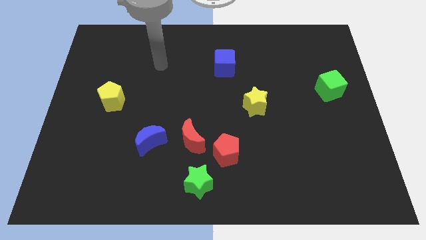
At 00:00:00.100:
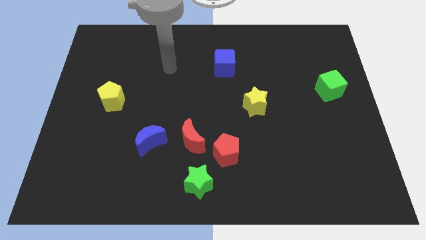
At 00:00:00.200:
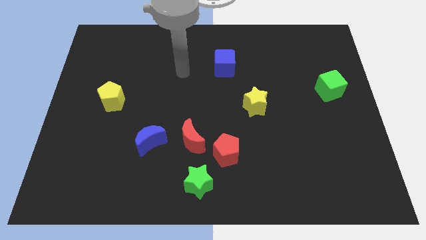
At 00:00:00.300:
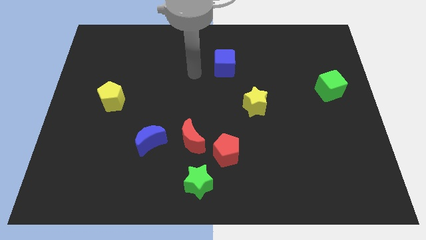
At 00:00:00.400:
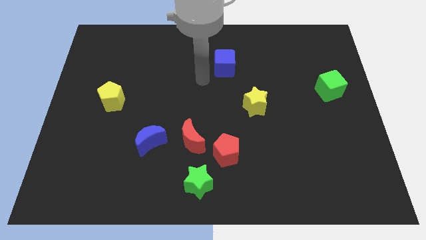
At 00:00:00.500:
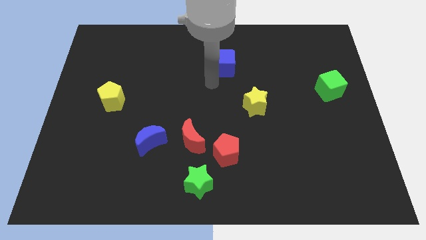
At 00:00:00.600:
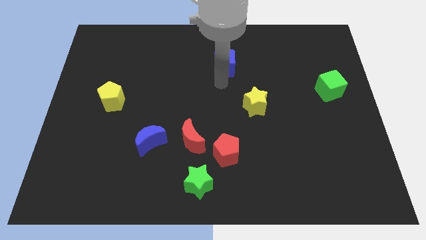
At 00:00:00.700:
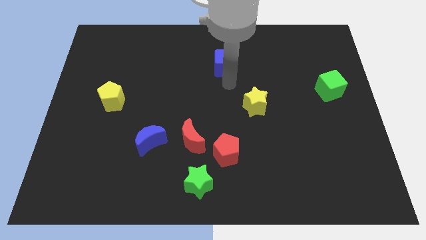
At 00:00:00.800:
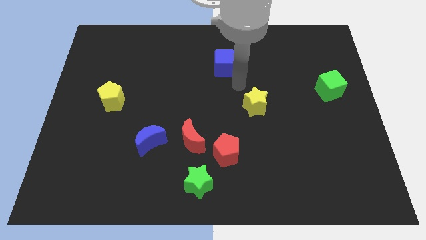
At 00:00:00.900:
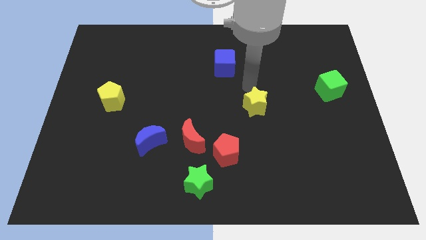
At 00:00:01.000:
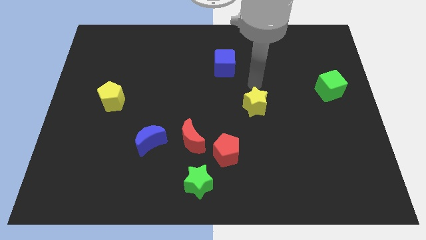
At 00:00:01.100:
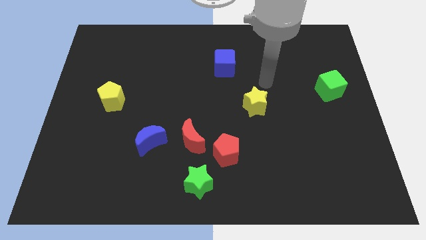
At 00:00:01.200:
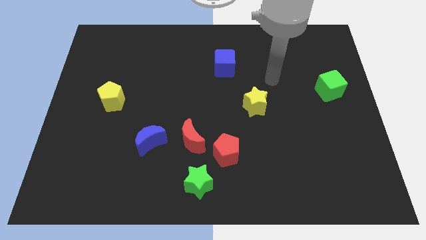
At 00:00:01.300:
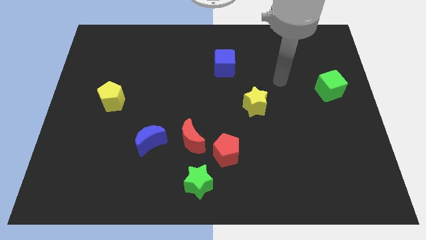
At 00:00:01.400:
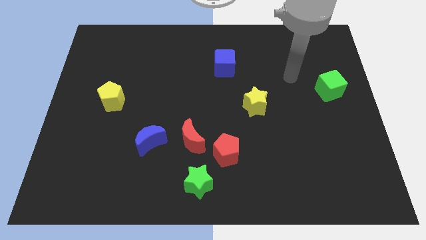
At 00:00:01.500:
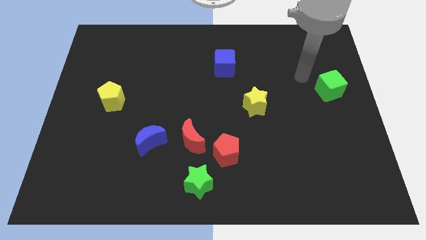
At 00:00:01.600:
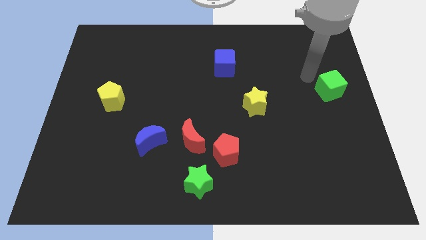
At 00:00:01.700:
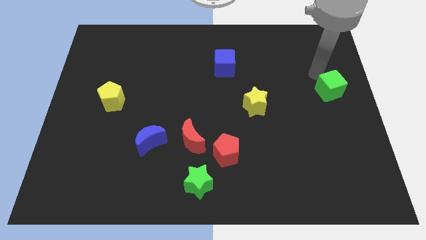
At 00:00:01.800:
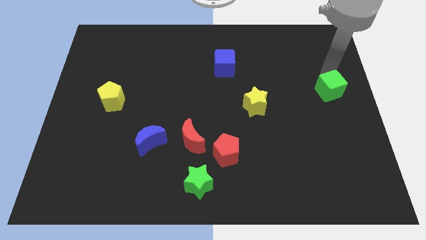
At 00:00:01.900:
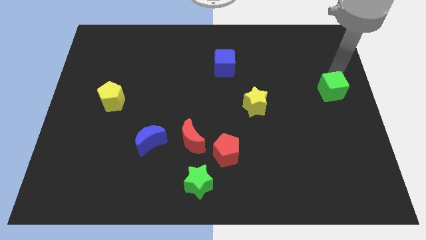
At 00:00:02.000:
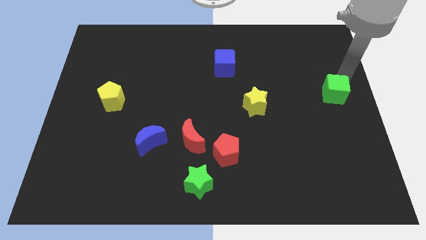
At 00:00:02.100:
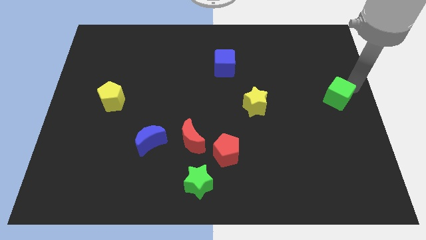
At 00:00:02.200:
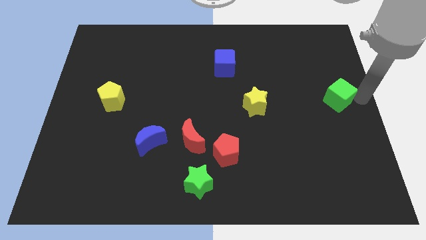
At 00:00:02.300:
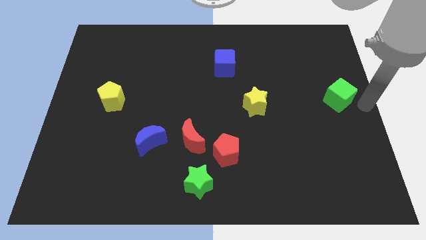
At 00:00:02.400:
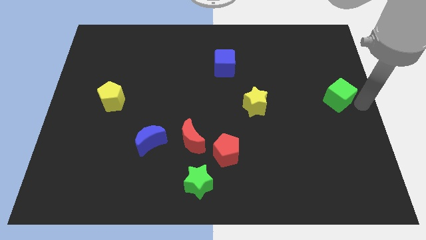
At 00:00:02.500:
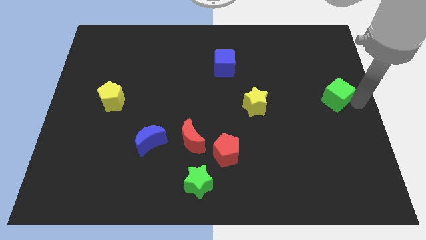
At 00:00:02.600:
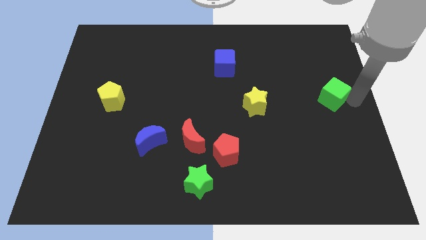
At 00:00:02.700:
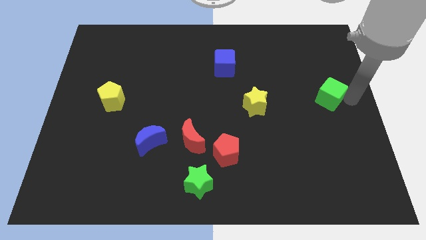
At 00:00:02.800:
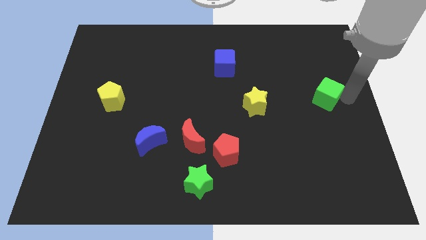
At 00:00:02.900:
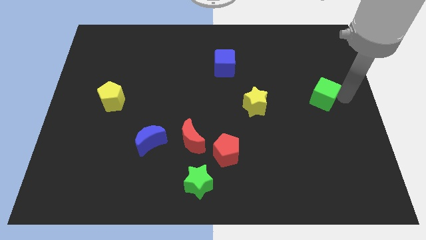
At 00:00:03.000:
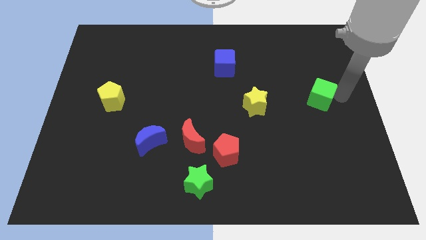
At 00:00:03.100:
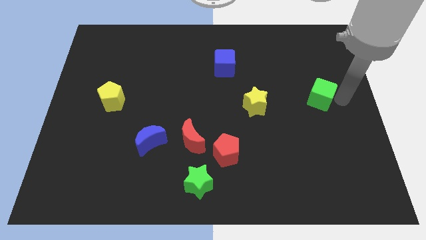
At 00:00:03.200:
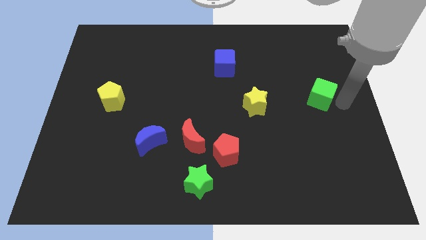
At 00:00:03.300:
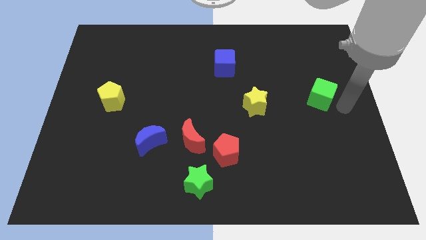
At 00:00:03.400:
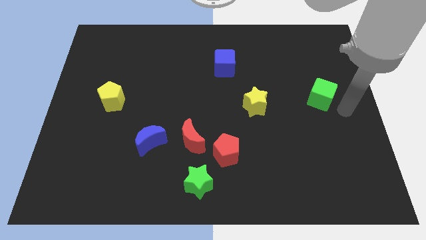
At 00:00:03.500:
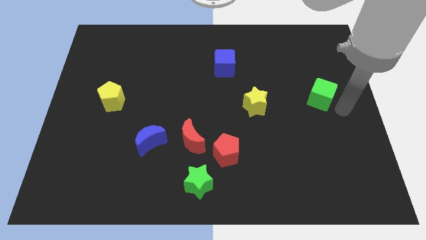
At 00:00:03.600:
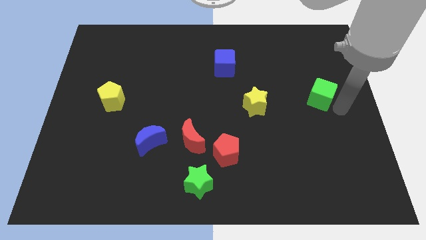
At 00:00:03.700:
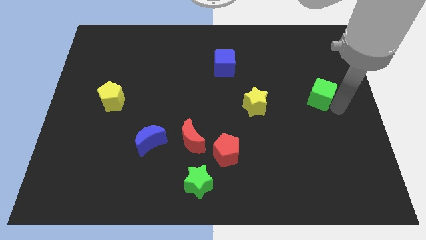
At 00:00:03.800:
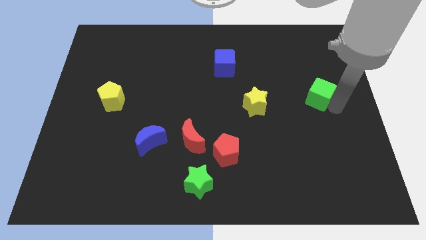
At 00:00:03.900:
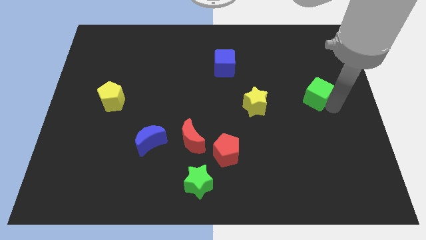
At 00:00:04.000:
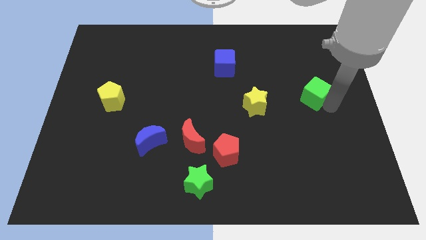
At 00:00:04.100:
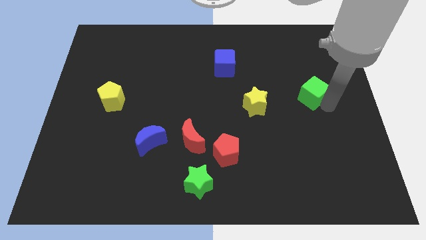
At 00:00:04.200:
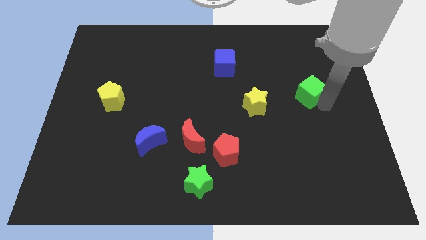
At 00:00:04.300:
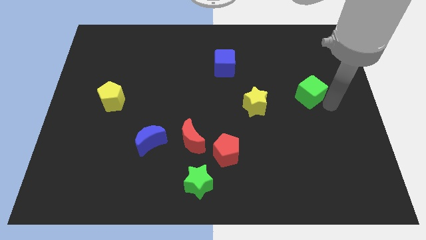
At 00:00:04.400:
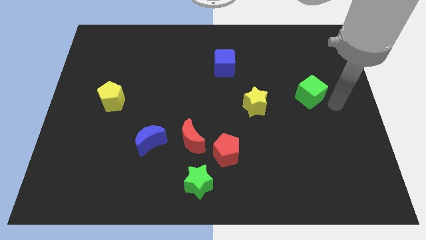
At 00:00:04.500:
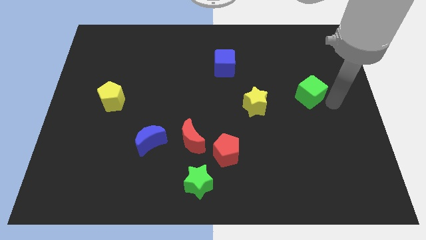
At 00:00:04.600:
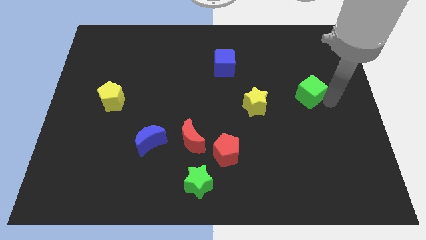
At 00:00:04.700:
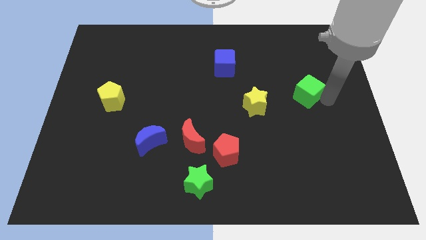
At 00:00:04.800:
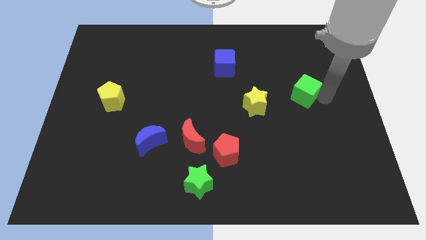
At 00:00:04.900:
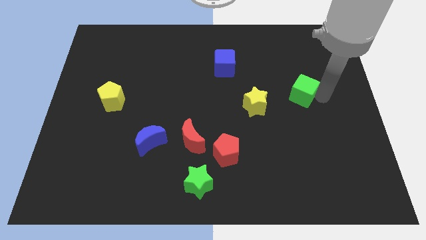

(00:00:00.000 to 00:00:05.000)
push the green cube a little left

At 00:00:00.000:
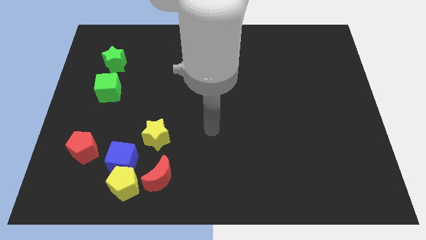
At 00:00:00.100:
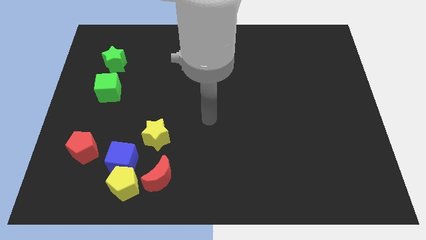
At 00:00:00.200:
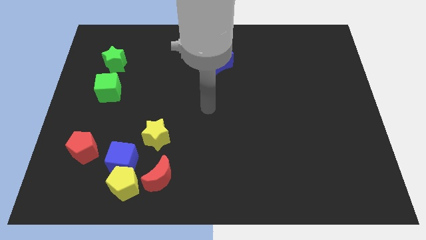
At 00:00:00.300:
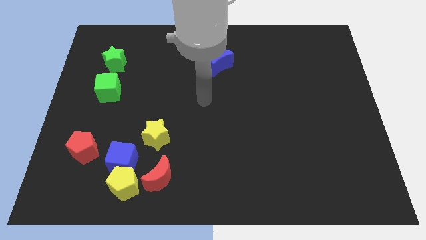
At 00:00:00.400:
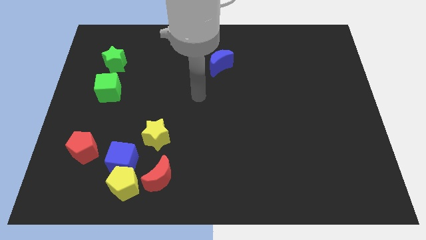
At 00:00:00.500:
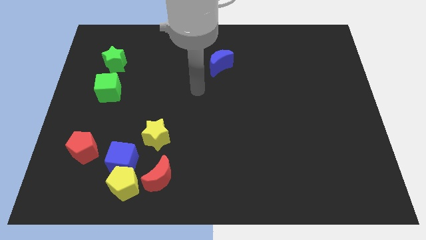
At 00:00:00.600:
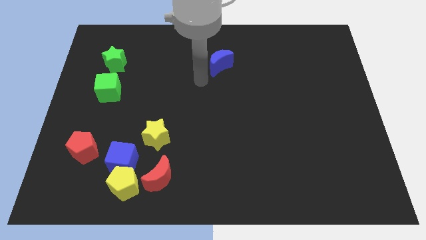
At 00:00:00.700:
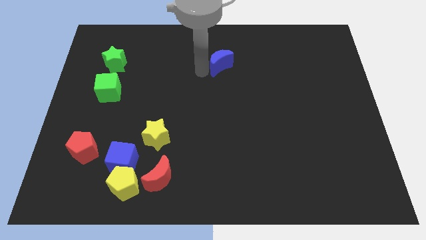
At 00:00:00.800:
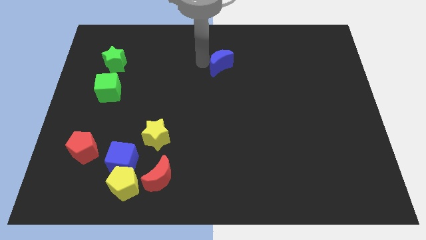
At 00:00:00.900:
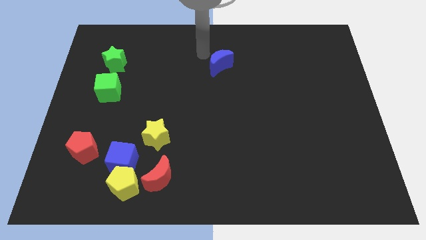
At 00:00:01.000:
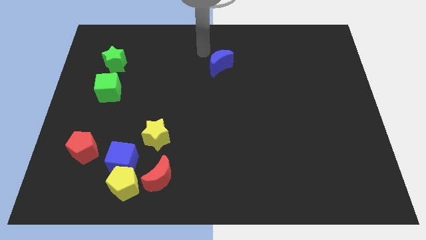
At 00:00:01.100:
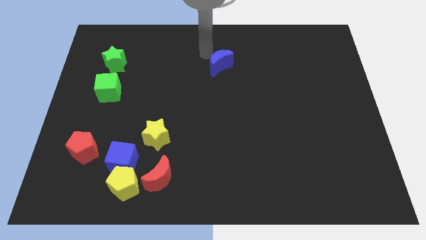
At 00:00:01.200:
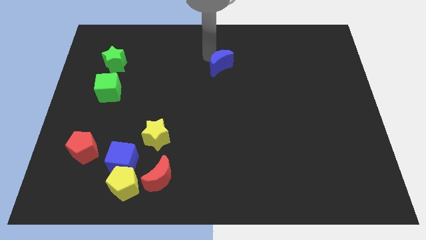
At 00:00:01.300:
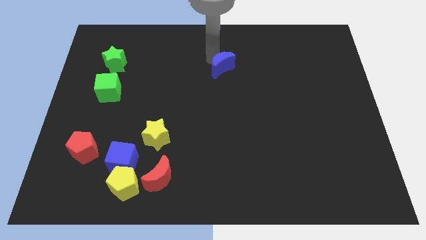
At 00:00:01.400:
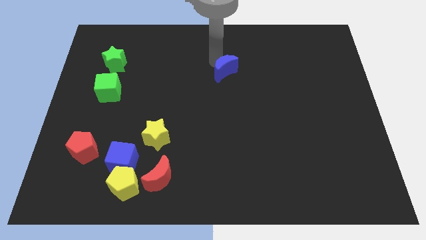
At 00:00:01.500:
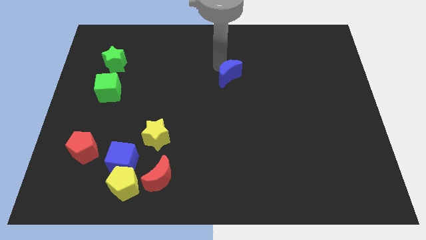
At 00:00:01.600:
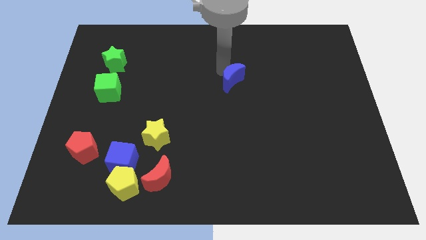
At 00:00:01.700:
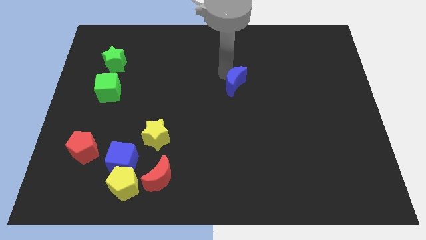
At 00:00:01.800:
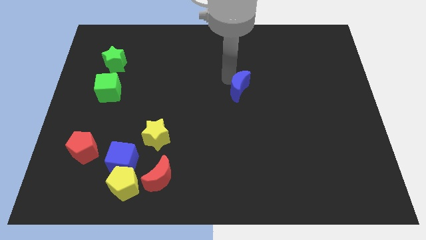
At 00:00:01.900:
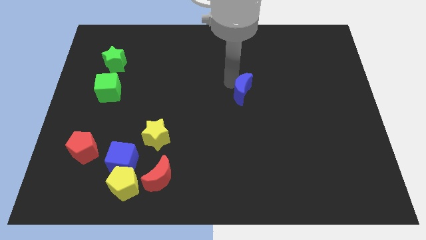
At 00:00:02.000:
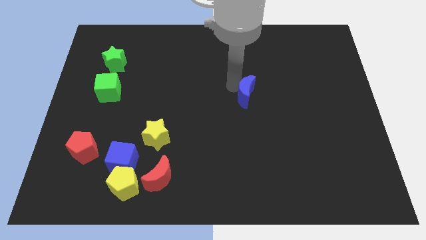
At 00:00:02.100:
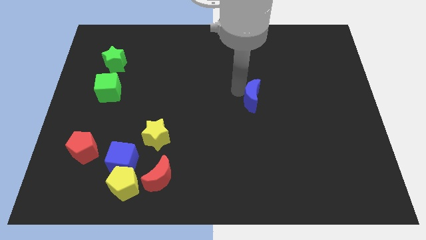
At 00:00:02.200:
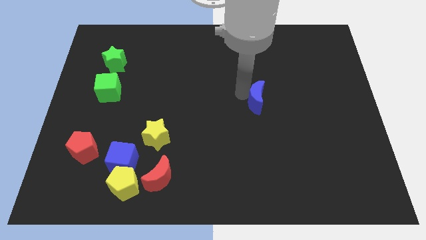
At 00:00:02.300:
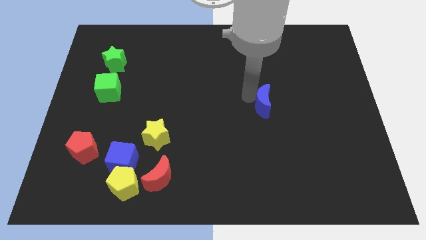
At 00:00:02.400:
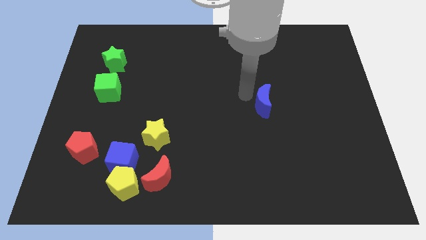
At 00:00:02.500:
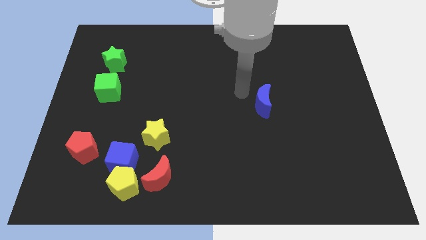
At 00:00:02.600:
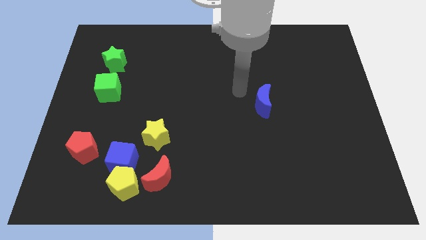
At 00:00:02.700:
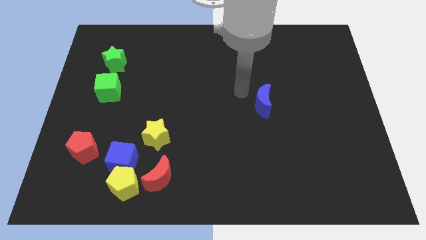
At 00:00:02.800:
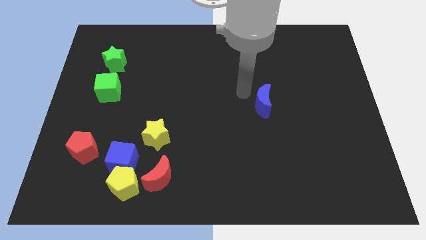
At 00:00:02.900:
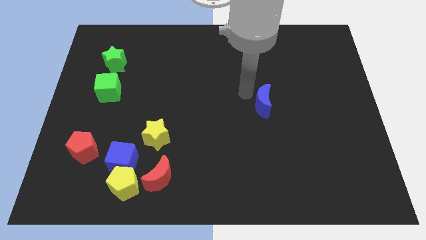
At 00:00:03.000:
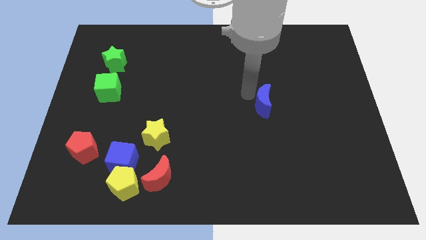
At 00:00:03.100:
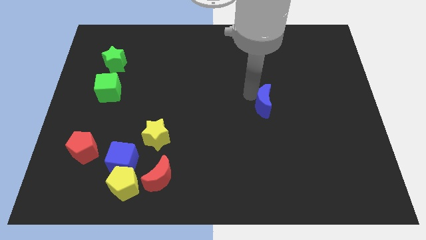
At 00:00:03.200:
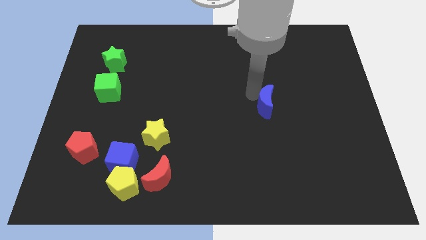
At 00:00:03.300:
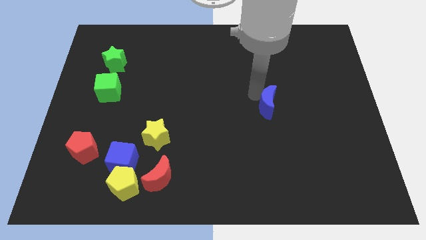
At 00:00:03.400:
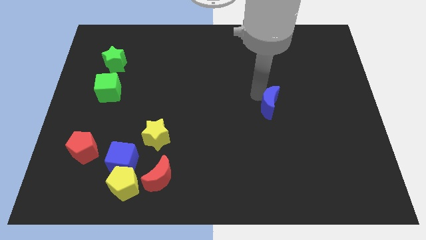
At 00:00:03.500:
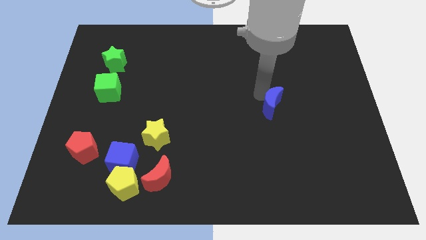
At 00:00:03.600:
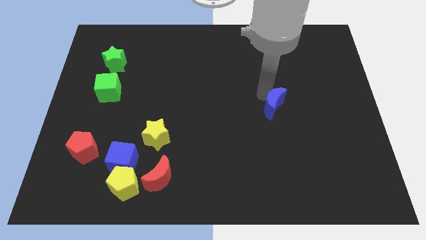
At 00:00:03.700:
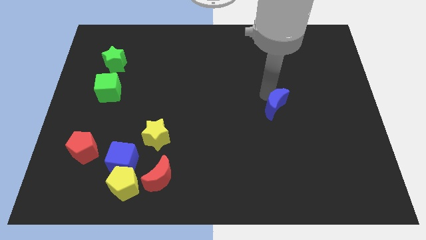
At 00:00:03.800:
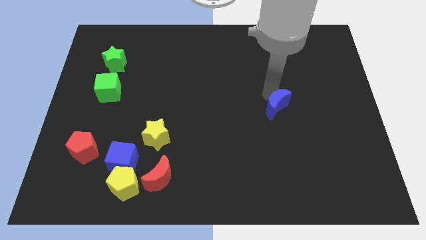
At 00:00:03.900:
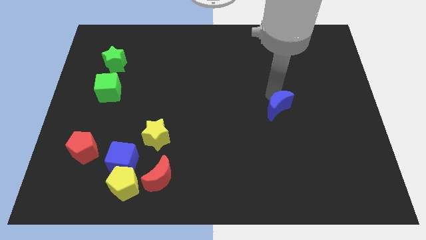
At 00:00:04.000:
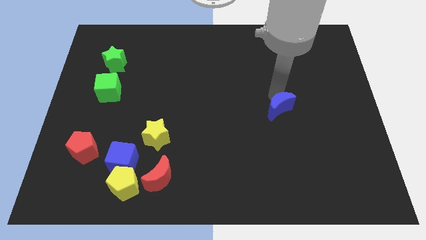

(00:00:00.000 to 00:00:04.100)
slide the blue moon down and then right
